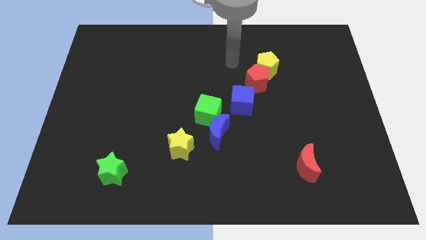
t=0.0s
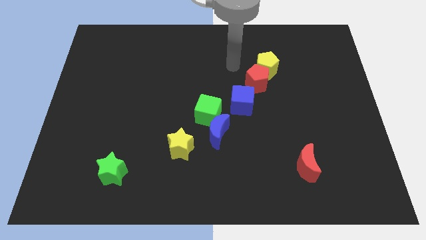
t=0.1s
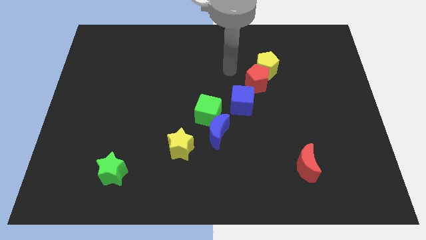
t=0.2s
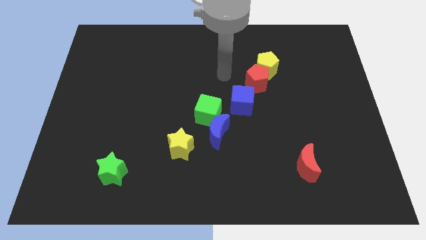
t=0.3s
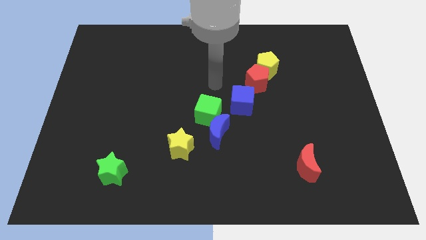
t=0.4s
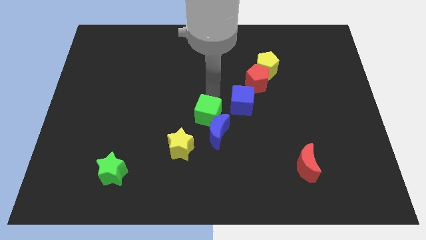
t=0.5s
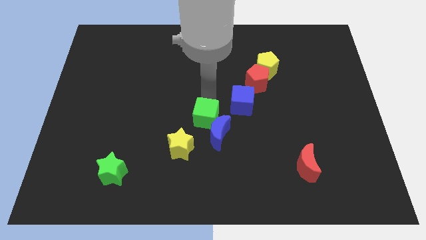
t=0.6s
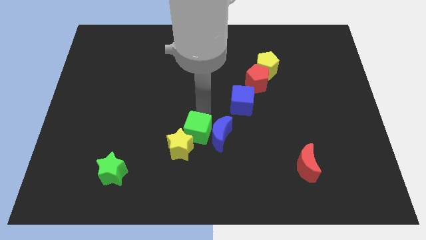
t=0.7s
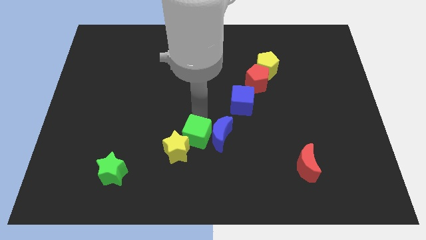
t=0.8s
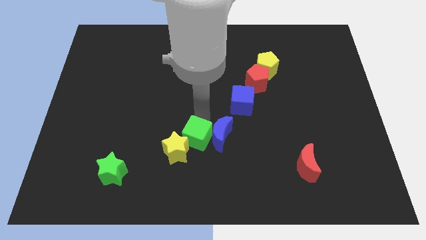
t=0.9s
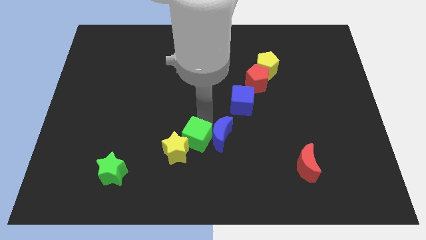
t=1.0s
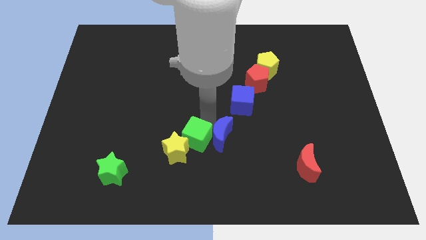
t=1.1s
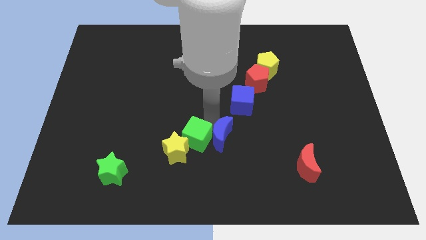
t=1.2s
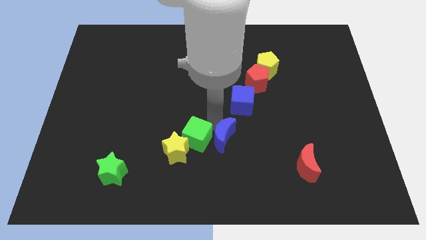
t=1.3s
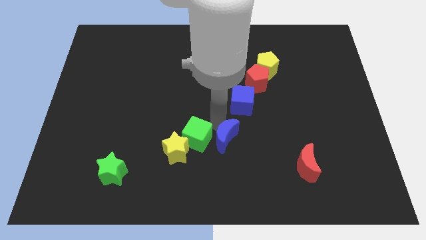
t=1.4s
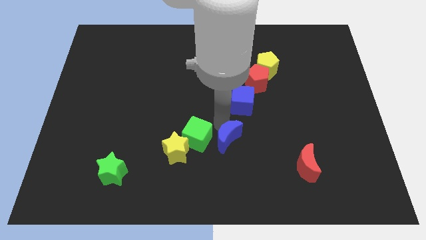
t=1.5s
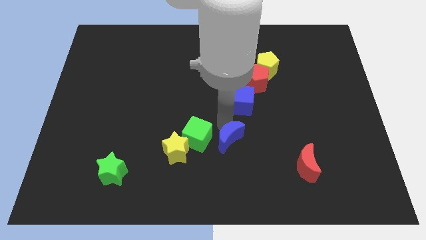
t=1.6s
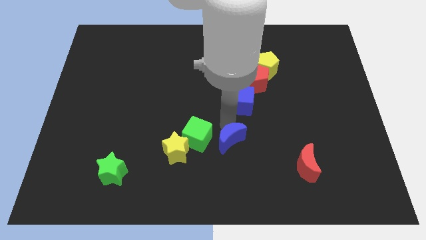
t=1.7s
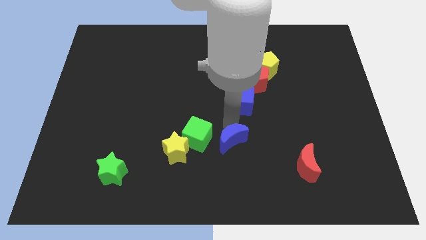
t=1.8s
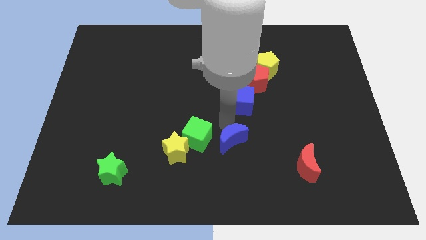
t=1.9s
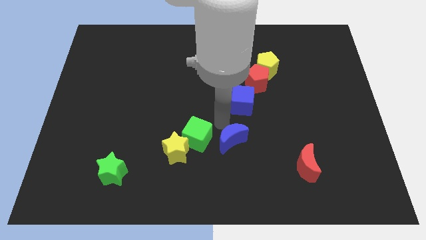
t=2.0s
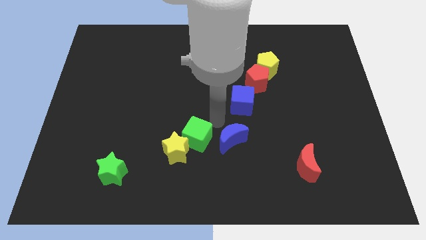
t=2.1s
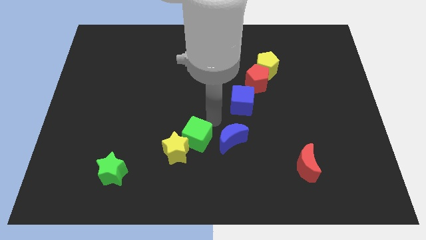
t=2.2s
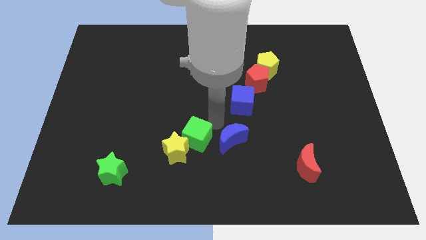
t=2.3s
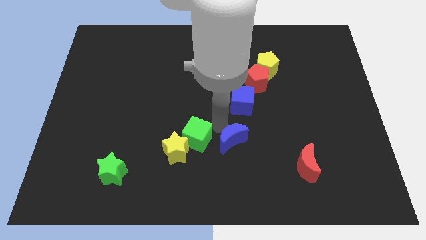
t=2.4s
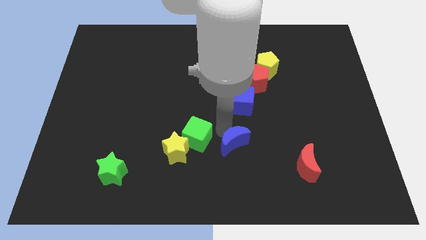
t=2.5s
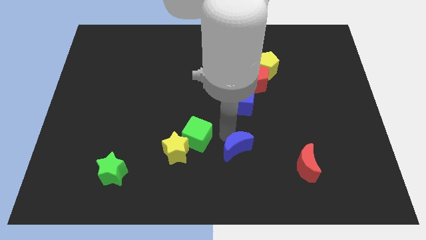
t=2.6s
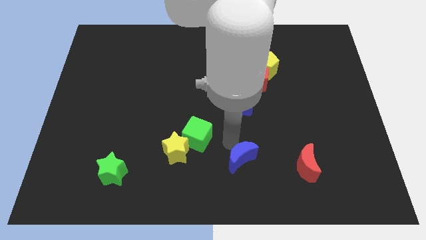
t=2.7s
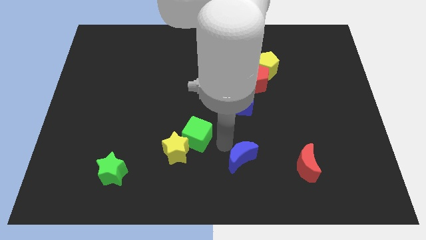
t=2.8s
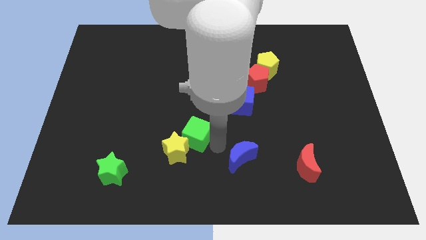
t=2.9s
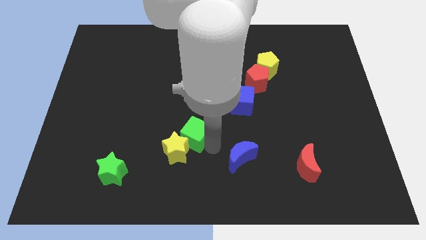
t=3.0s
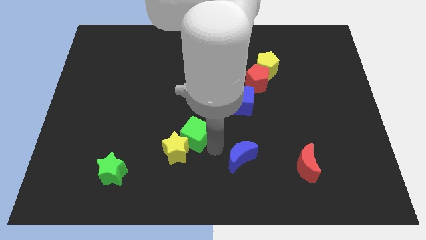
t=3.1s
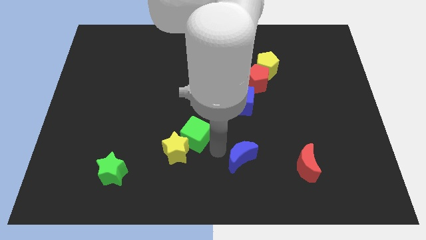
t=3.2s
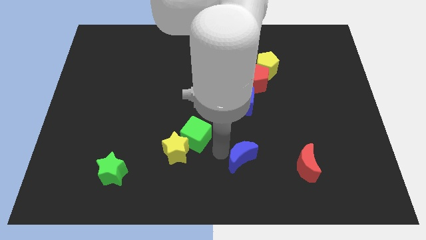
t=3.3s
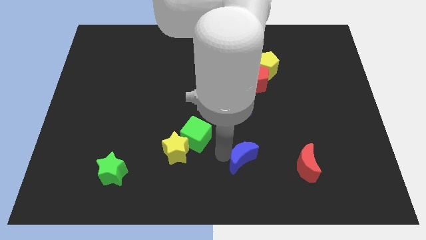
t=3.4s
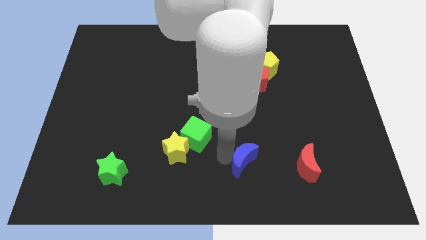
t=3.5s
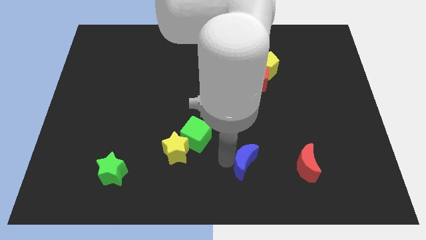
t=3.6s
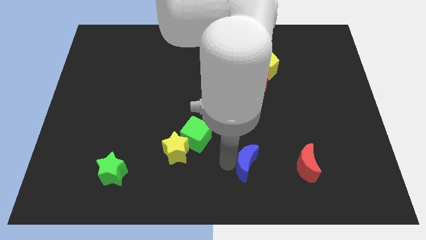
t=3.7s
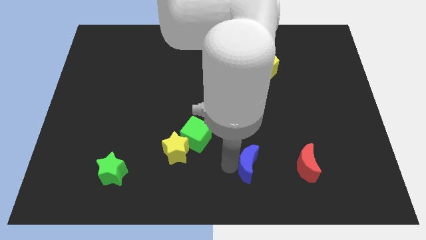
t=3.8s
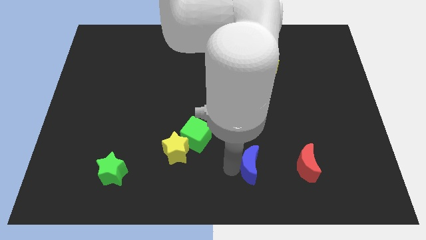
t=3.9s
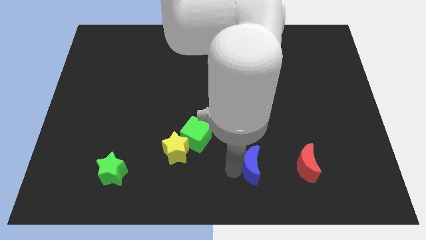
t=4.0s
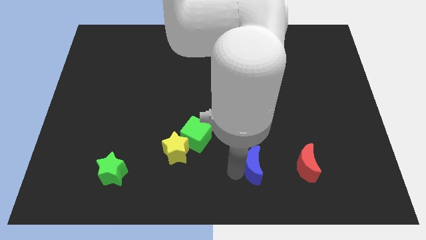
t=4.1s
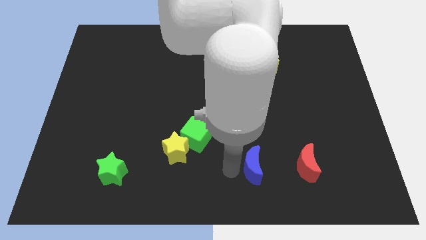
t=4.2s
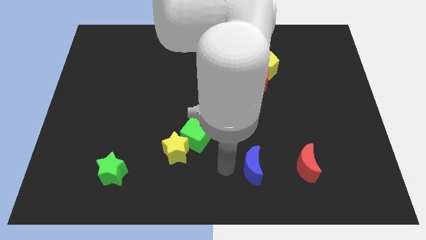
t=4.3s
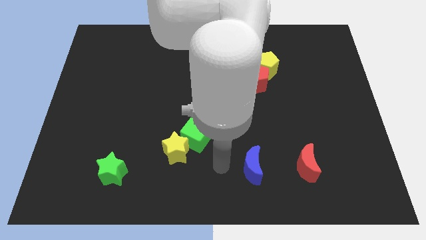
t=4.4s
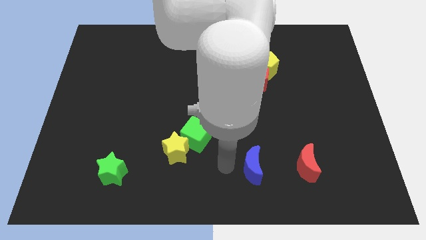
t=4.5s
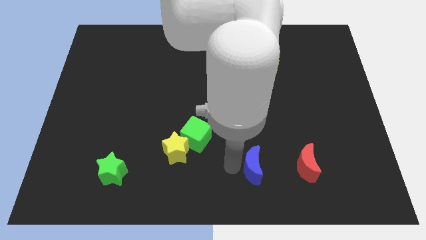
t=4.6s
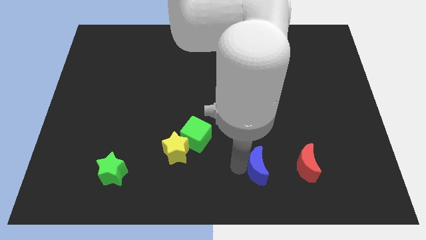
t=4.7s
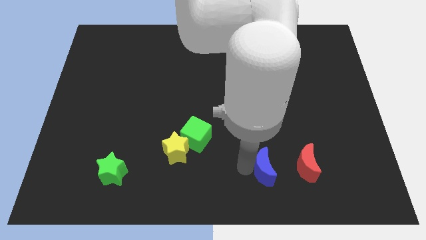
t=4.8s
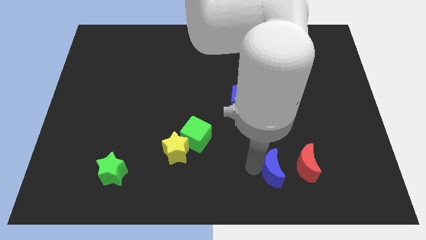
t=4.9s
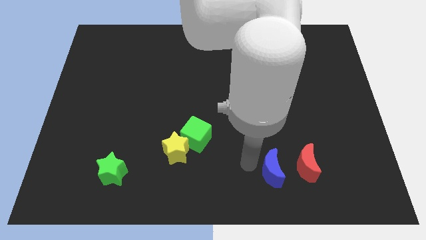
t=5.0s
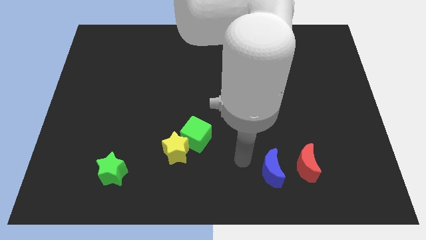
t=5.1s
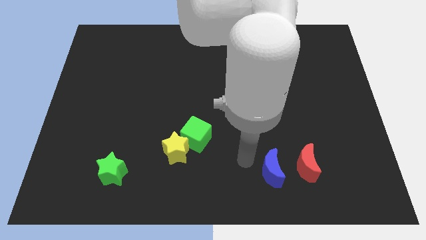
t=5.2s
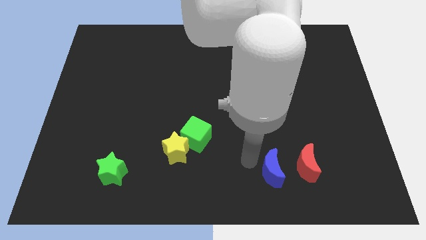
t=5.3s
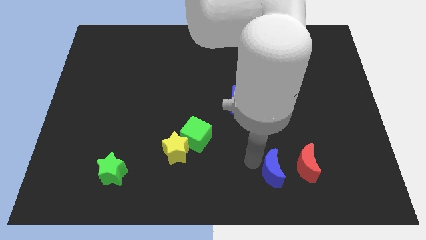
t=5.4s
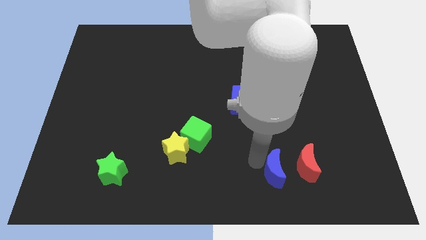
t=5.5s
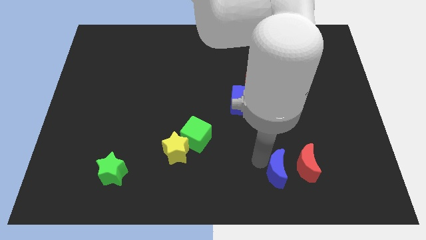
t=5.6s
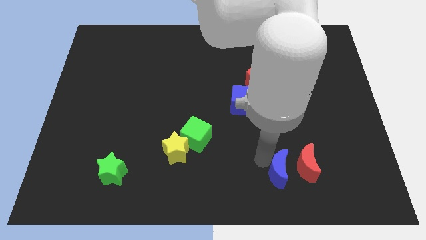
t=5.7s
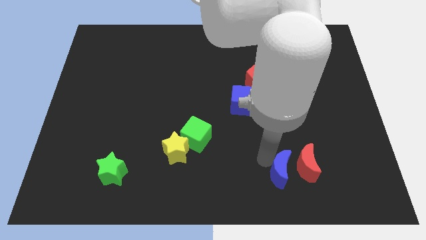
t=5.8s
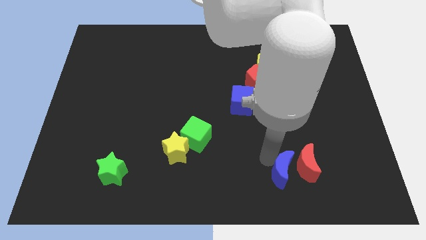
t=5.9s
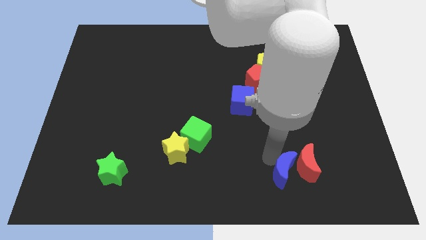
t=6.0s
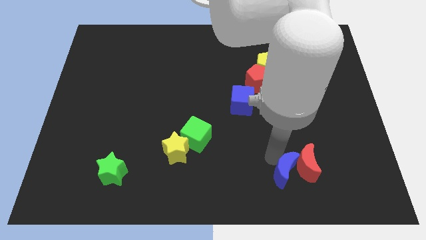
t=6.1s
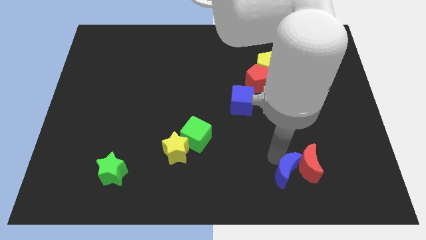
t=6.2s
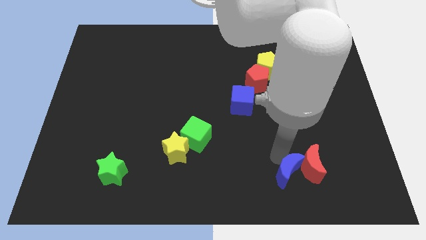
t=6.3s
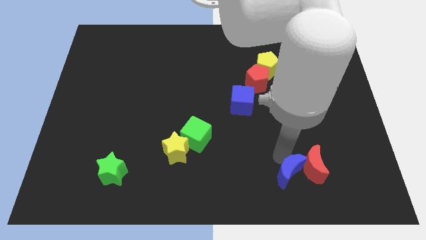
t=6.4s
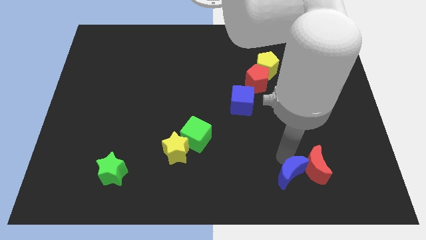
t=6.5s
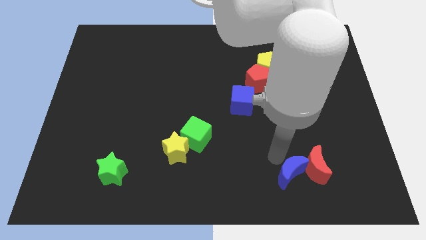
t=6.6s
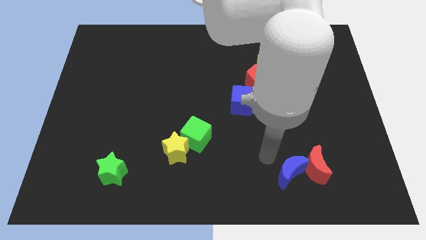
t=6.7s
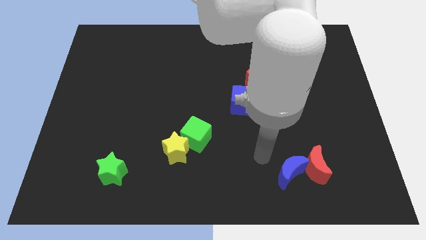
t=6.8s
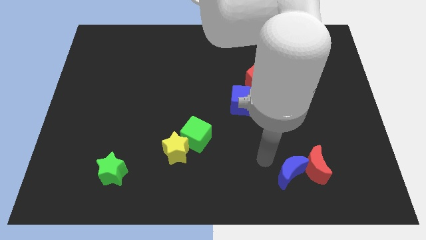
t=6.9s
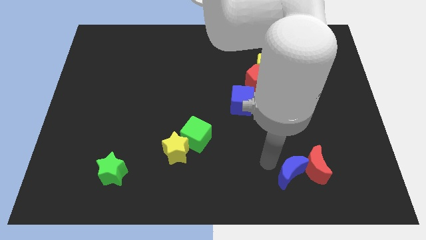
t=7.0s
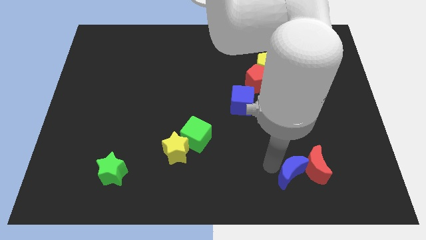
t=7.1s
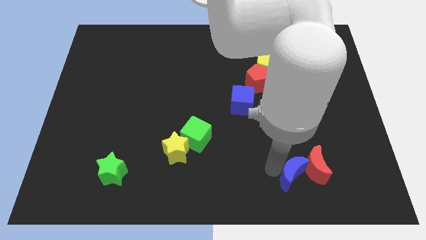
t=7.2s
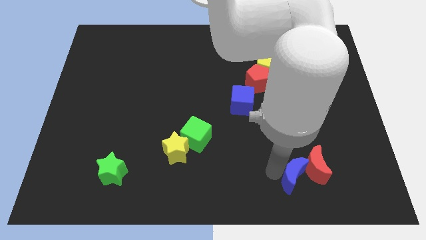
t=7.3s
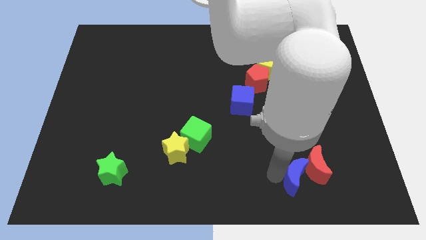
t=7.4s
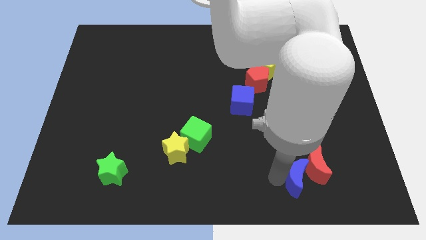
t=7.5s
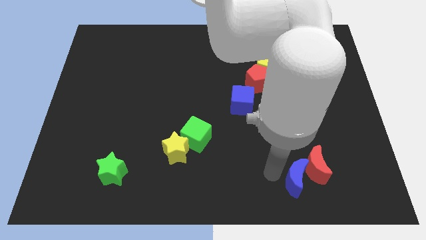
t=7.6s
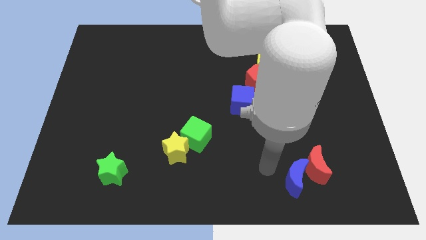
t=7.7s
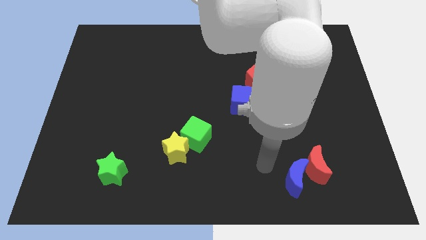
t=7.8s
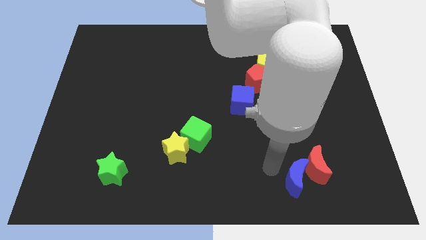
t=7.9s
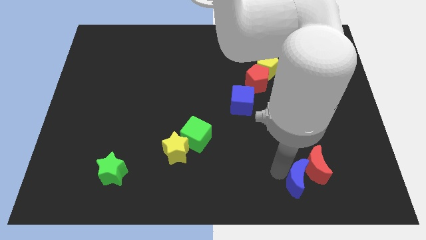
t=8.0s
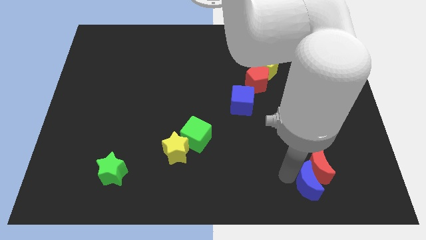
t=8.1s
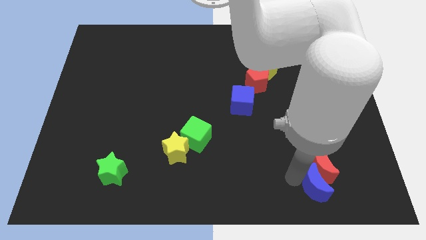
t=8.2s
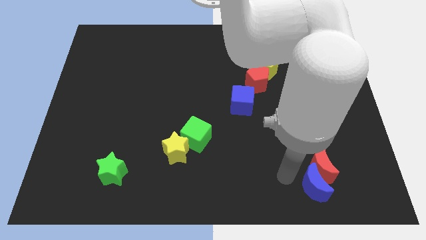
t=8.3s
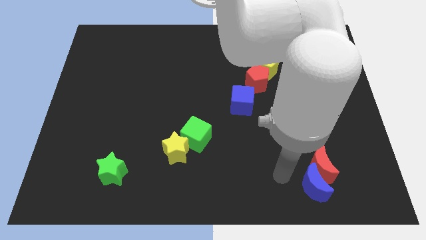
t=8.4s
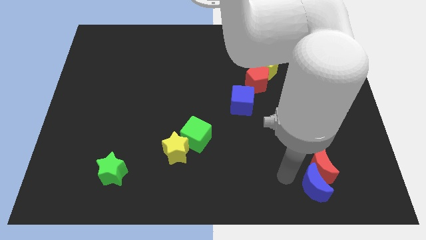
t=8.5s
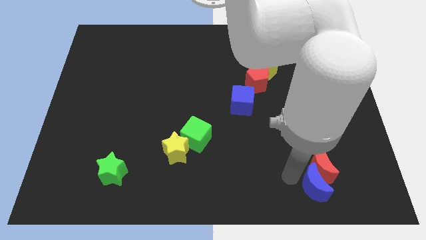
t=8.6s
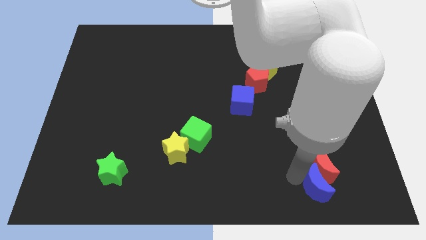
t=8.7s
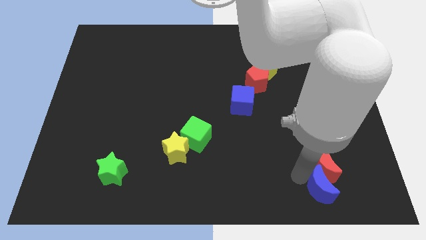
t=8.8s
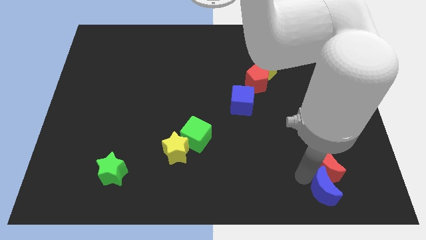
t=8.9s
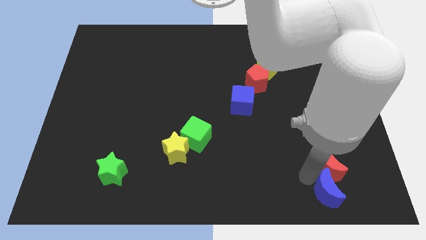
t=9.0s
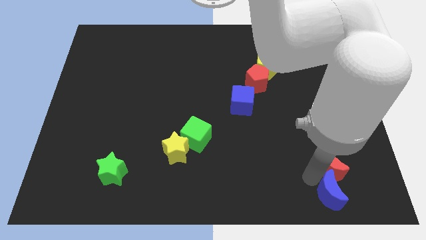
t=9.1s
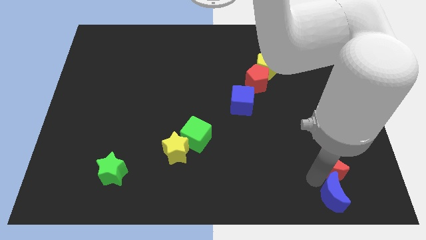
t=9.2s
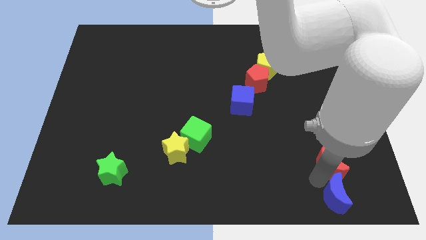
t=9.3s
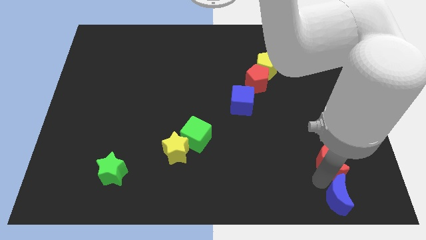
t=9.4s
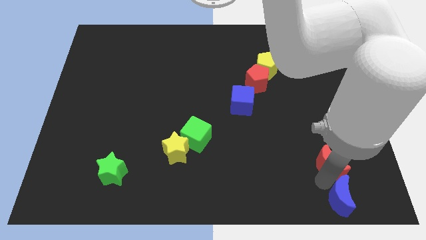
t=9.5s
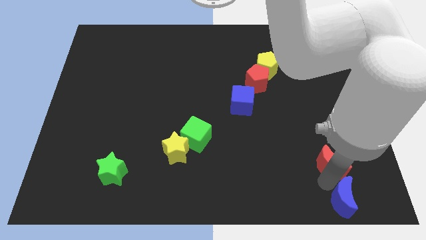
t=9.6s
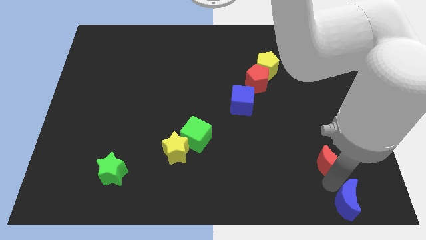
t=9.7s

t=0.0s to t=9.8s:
slide the blue moon to the bottom right corner
